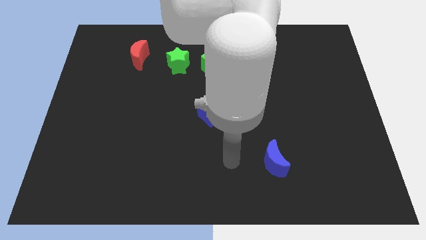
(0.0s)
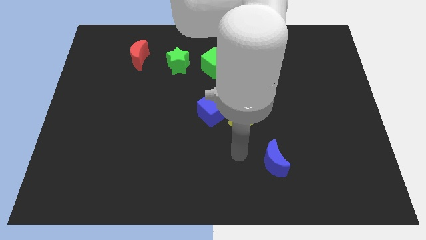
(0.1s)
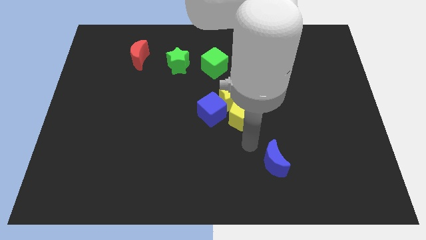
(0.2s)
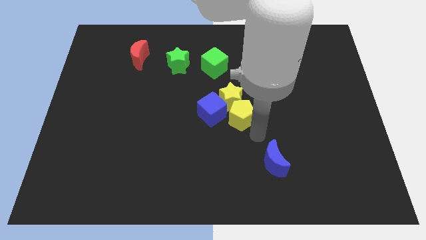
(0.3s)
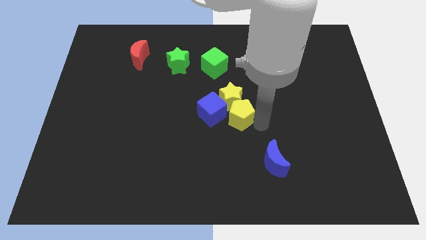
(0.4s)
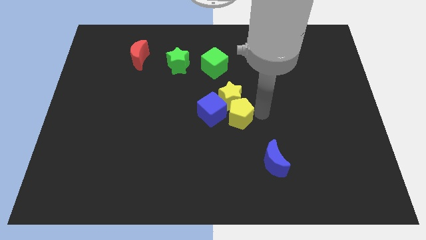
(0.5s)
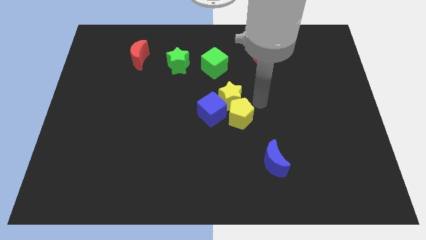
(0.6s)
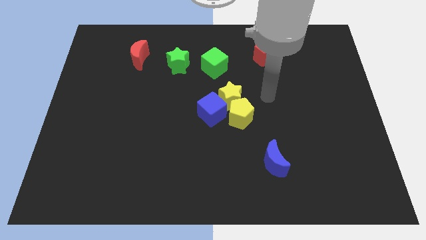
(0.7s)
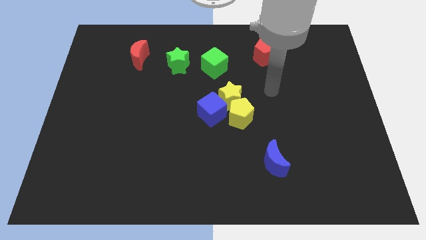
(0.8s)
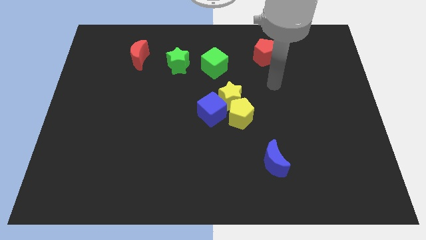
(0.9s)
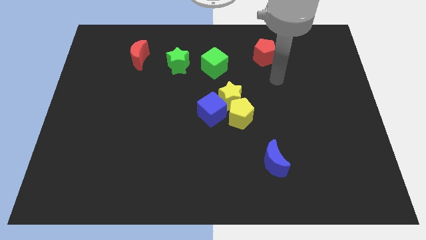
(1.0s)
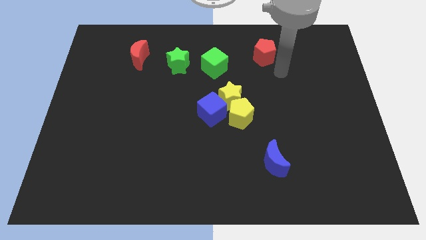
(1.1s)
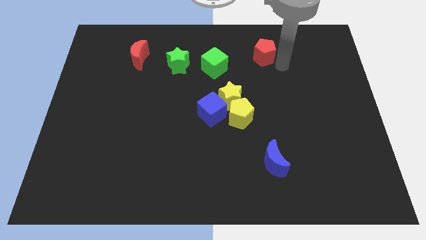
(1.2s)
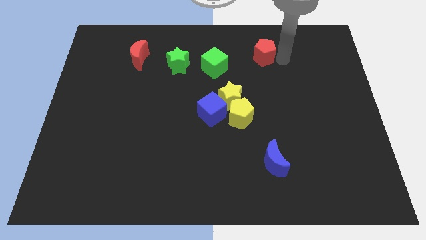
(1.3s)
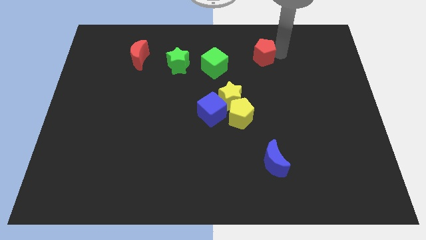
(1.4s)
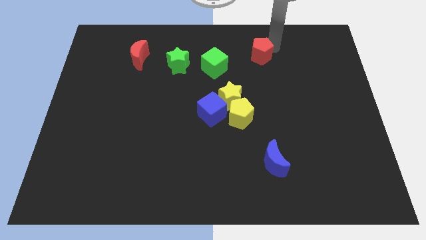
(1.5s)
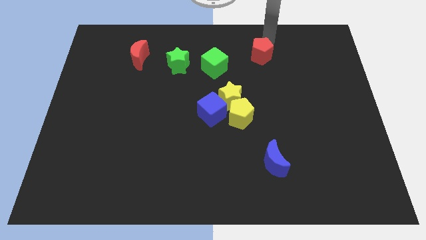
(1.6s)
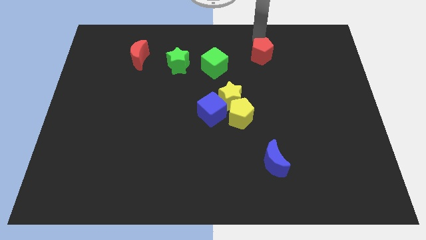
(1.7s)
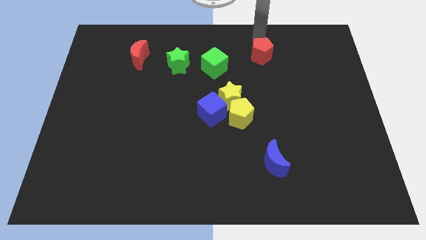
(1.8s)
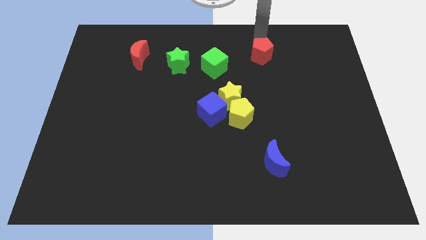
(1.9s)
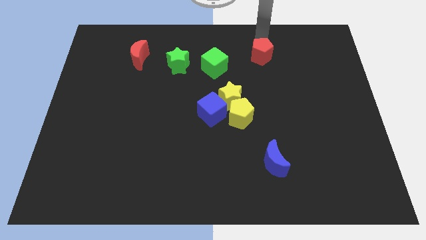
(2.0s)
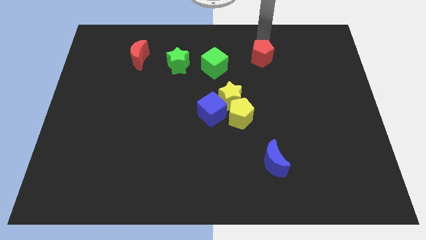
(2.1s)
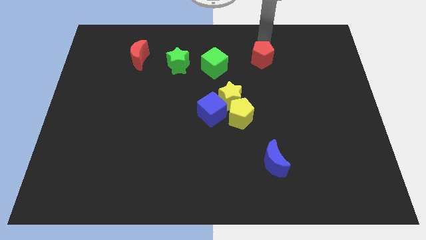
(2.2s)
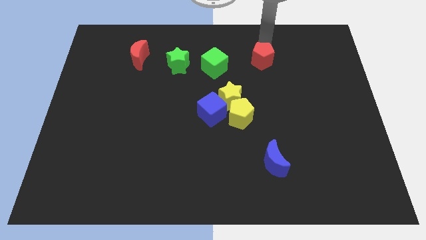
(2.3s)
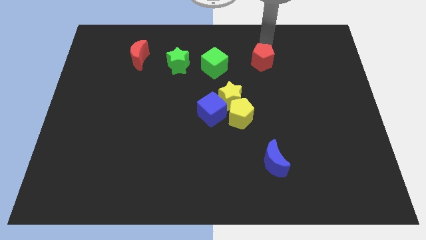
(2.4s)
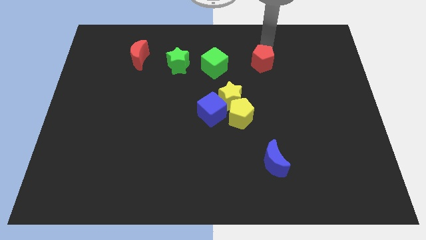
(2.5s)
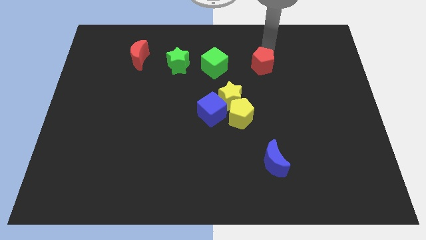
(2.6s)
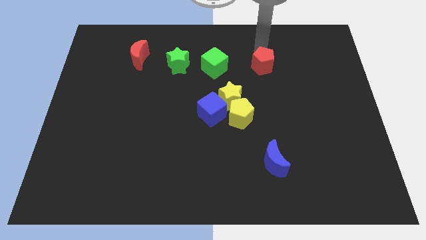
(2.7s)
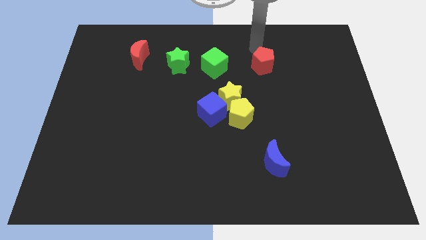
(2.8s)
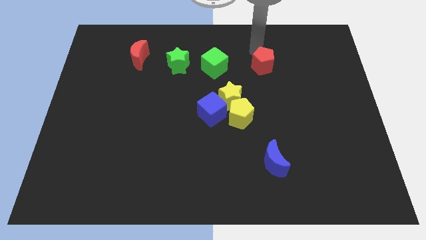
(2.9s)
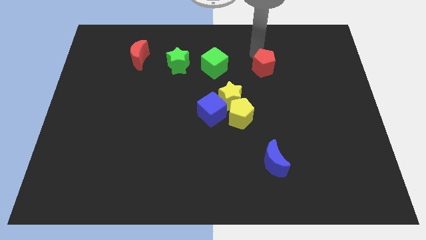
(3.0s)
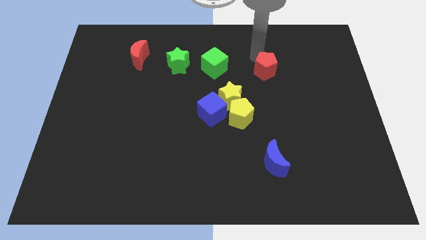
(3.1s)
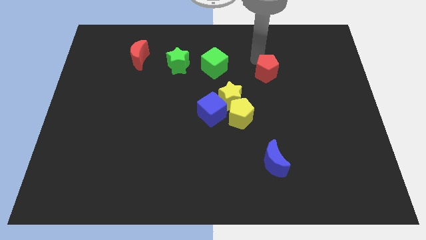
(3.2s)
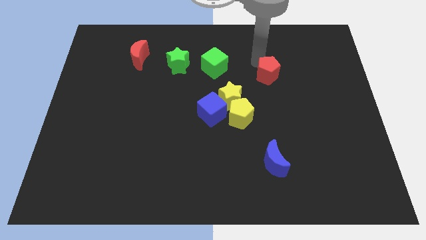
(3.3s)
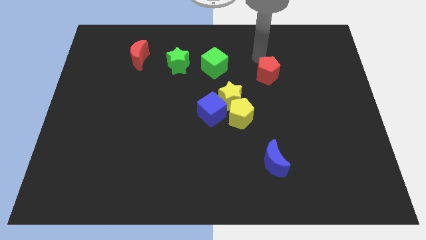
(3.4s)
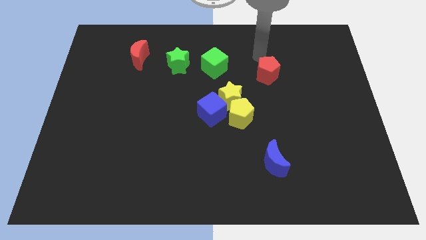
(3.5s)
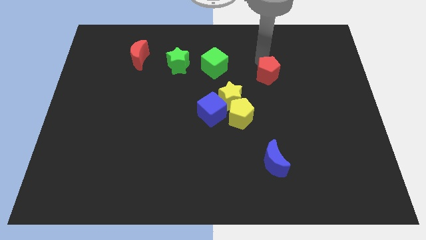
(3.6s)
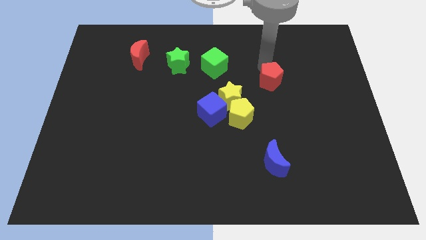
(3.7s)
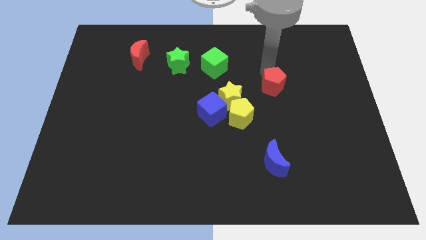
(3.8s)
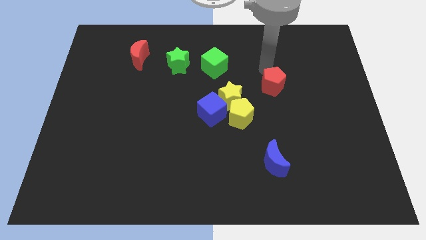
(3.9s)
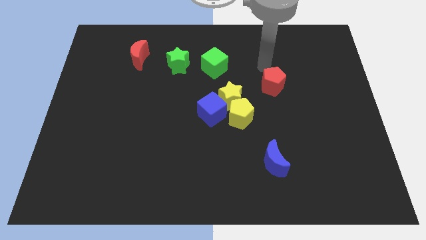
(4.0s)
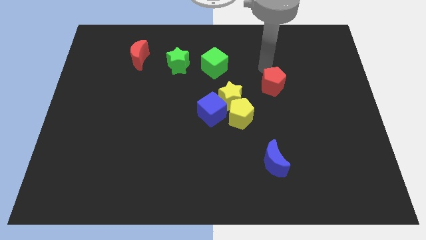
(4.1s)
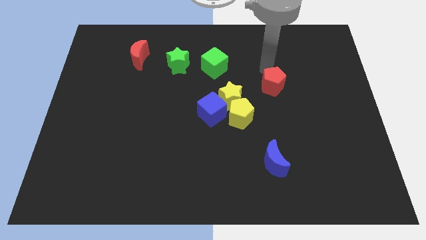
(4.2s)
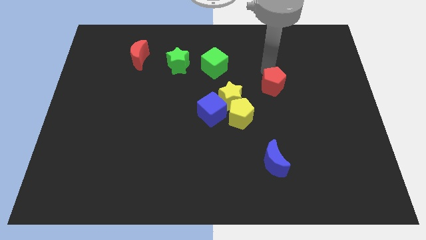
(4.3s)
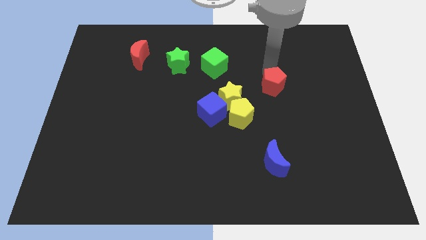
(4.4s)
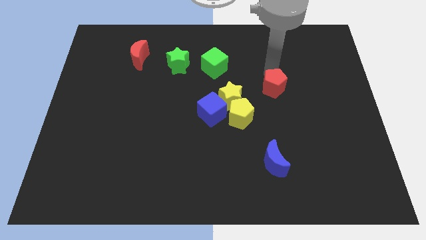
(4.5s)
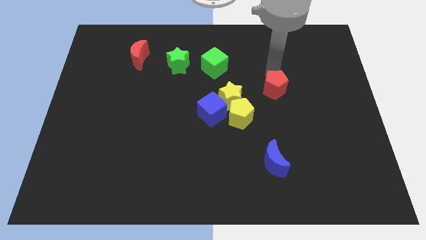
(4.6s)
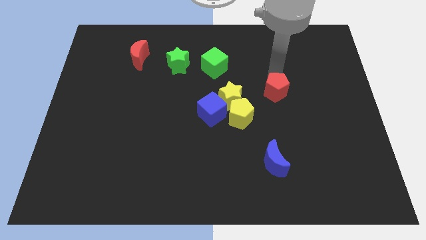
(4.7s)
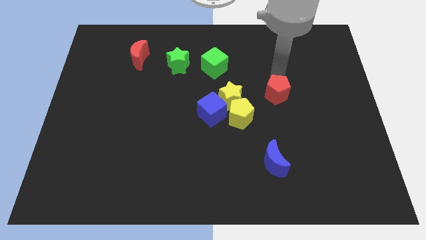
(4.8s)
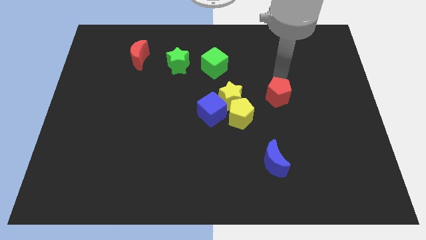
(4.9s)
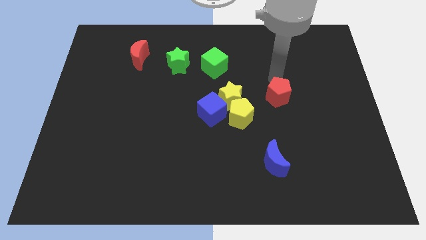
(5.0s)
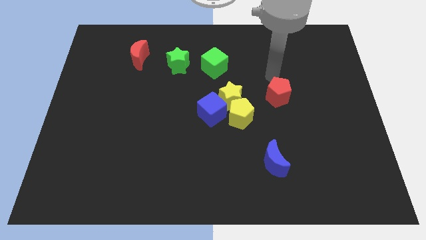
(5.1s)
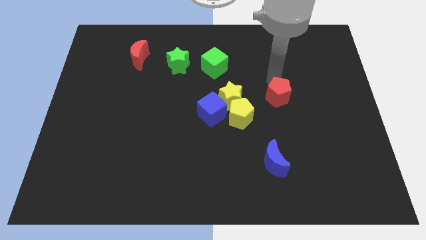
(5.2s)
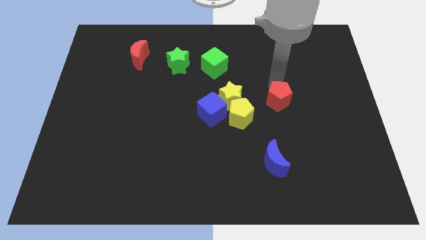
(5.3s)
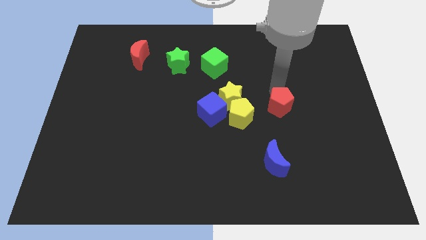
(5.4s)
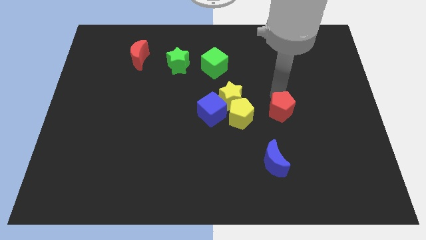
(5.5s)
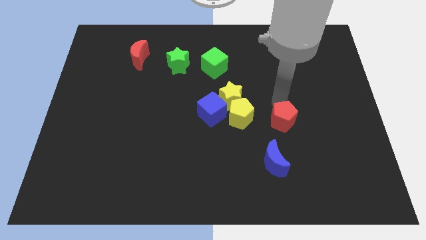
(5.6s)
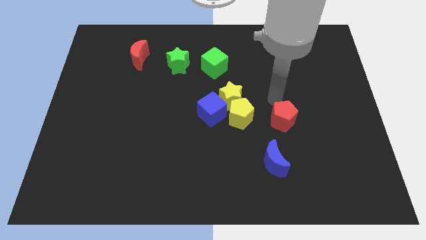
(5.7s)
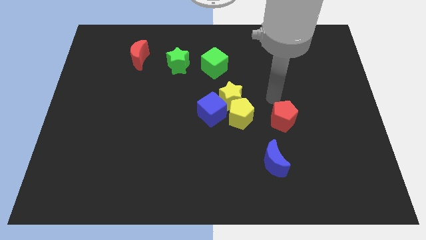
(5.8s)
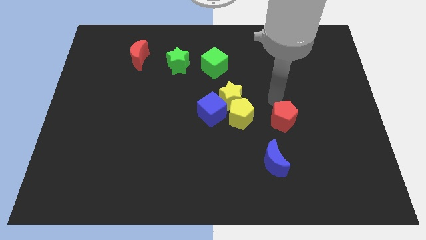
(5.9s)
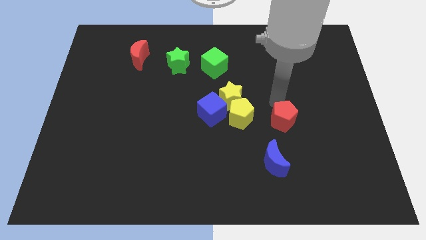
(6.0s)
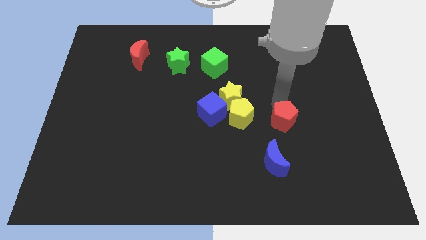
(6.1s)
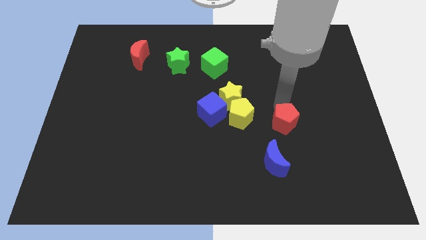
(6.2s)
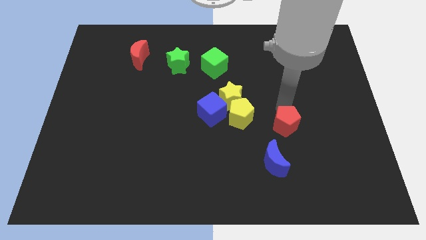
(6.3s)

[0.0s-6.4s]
slide the red pentagon diagonally up and to the right of the blue moon
